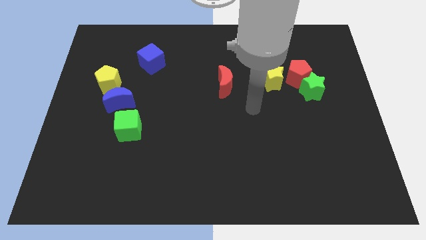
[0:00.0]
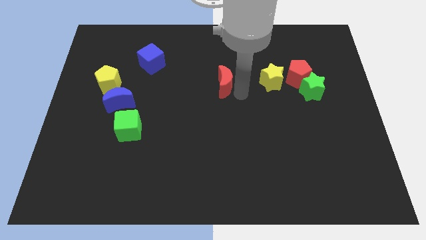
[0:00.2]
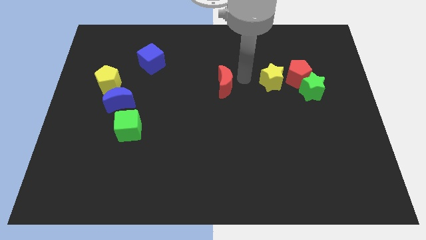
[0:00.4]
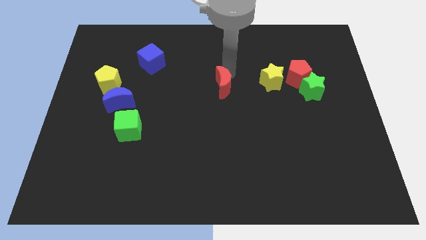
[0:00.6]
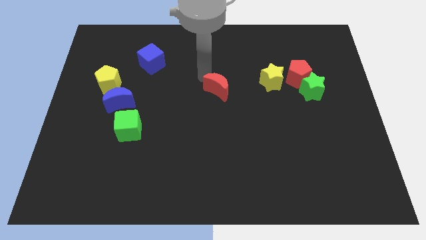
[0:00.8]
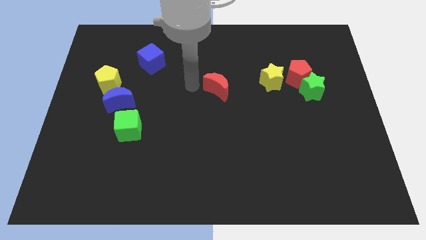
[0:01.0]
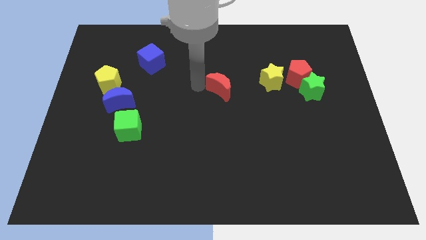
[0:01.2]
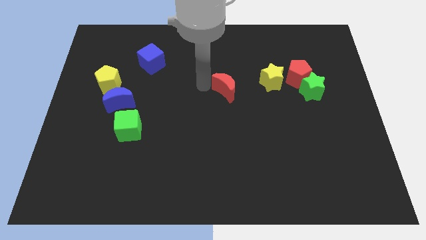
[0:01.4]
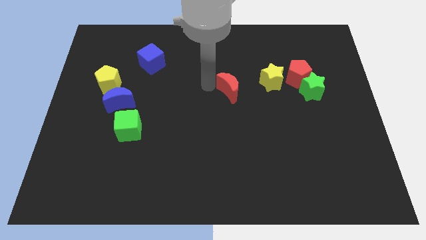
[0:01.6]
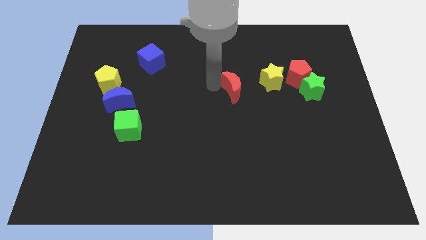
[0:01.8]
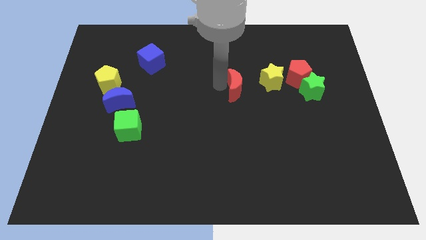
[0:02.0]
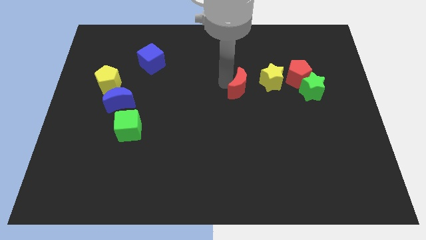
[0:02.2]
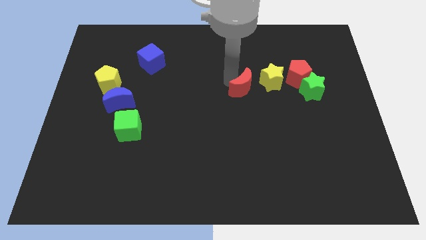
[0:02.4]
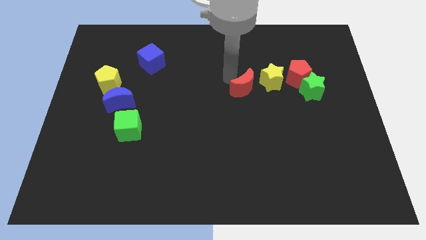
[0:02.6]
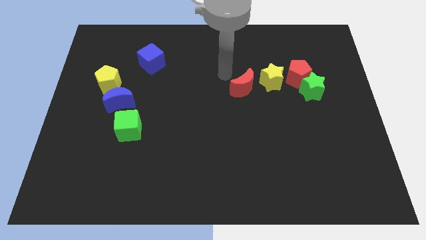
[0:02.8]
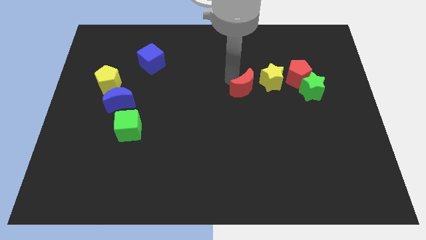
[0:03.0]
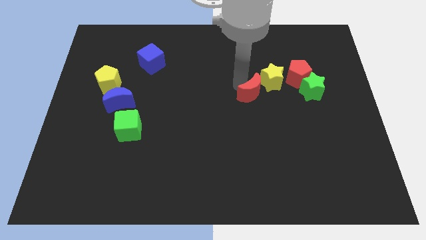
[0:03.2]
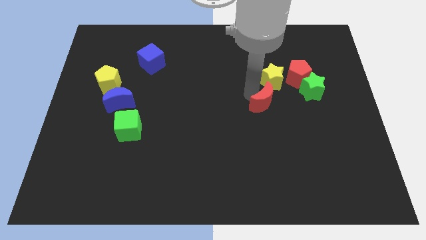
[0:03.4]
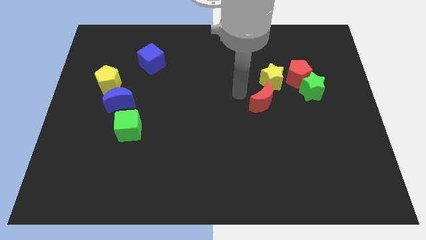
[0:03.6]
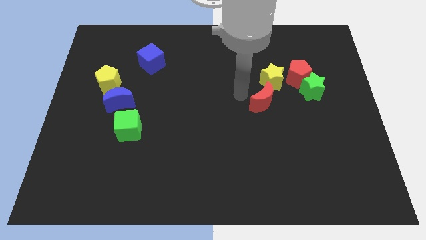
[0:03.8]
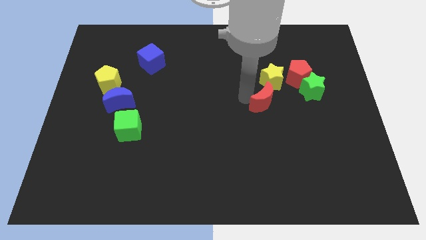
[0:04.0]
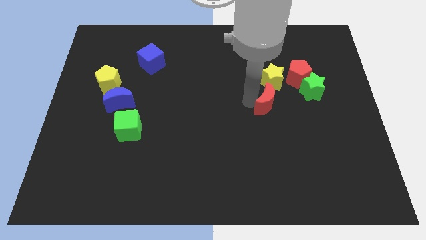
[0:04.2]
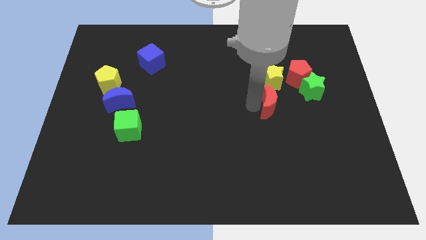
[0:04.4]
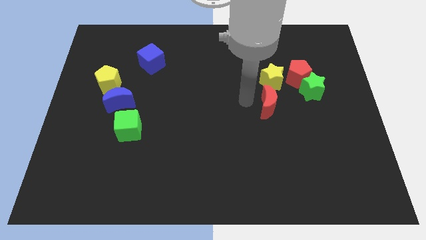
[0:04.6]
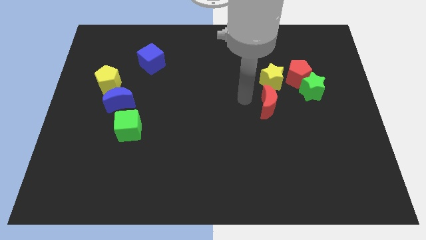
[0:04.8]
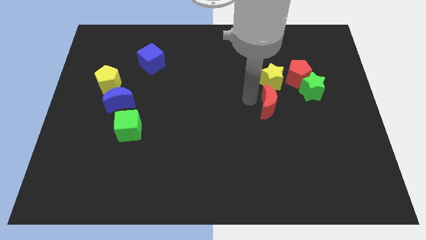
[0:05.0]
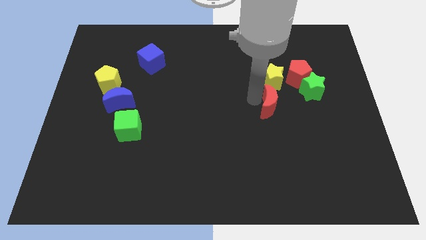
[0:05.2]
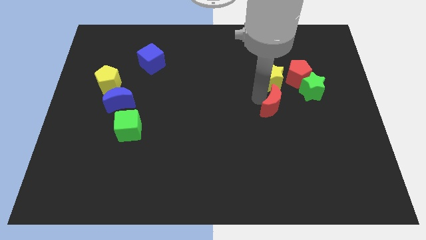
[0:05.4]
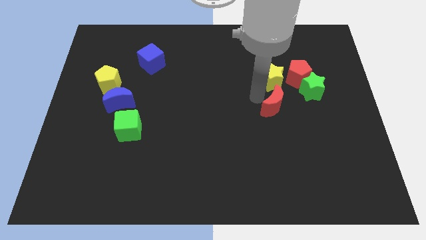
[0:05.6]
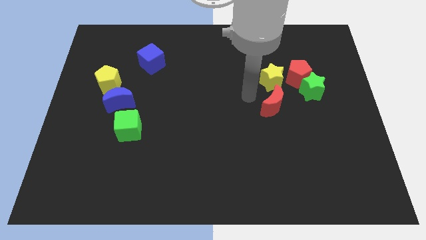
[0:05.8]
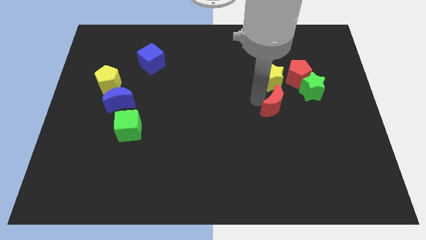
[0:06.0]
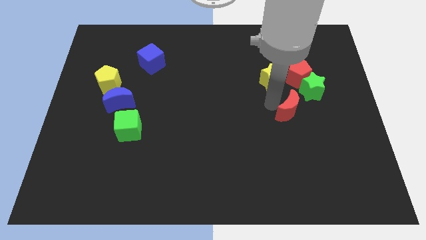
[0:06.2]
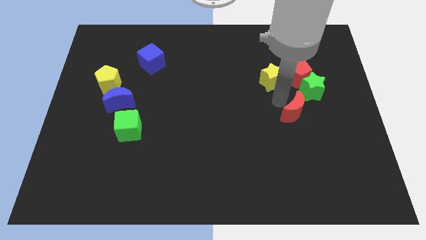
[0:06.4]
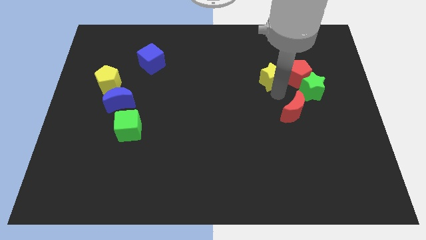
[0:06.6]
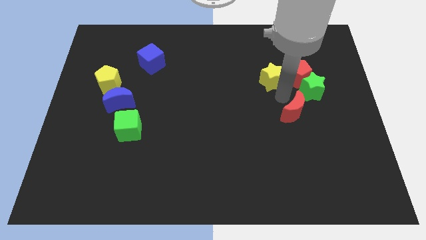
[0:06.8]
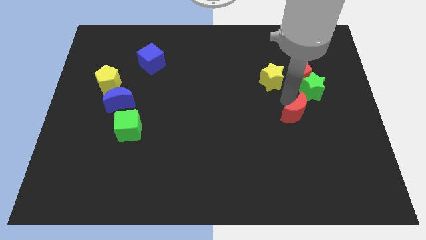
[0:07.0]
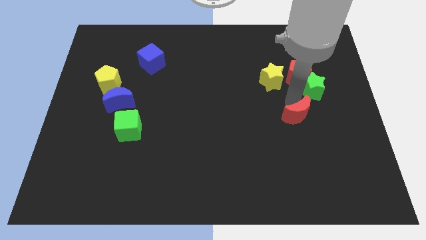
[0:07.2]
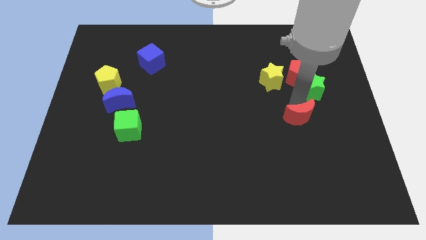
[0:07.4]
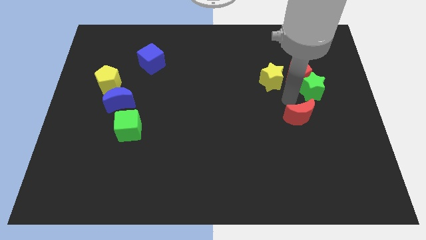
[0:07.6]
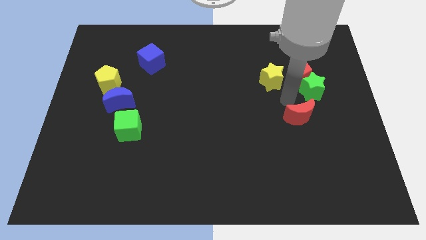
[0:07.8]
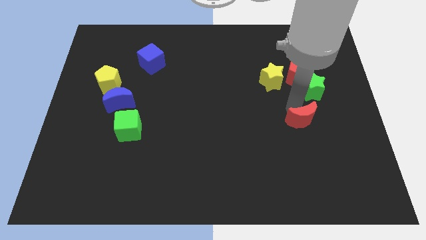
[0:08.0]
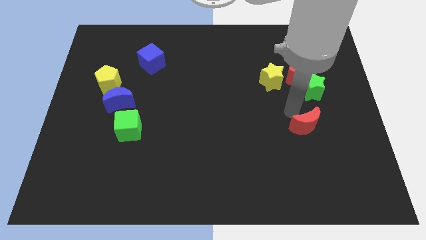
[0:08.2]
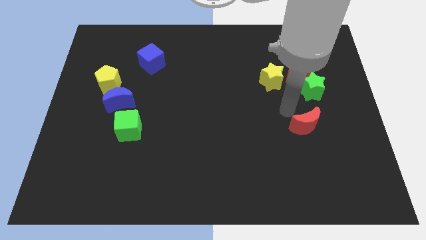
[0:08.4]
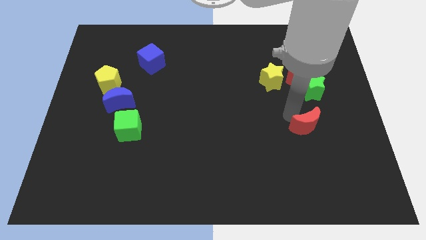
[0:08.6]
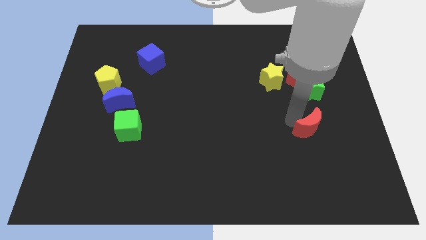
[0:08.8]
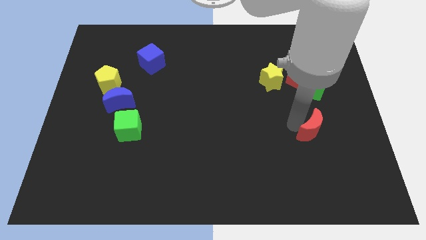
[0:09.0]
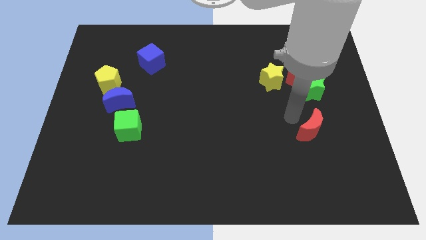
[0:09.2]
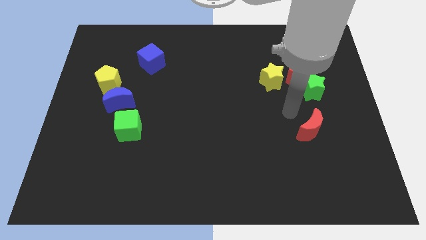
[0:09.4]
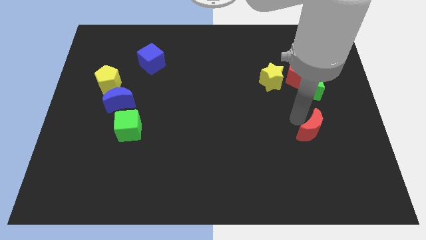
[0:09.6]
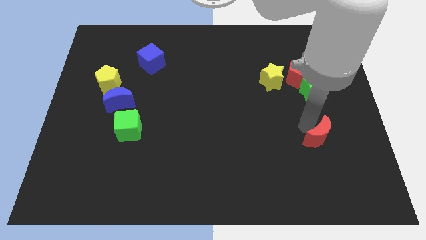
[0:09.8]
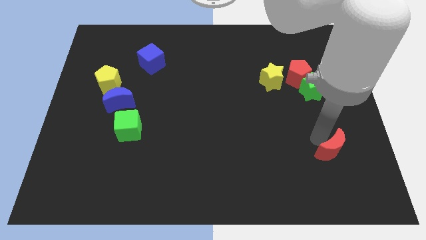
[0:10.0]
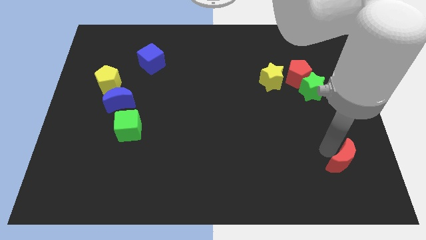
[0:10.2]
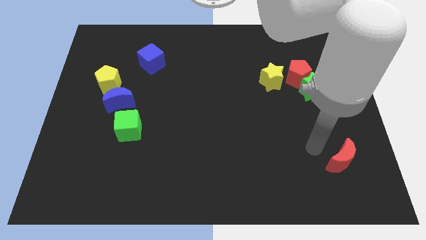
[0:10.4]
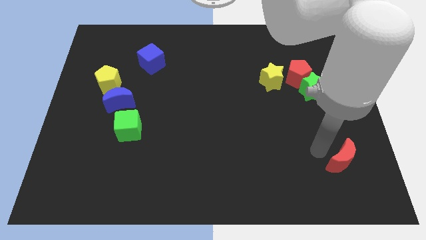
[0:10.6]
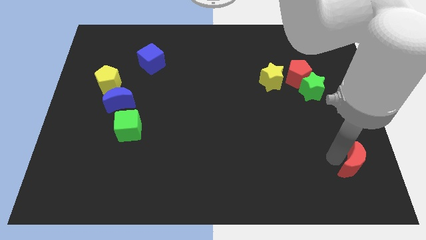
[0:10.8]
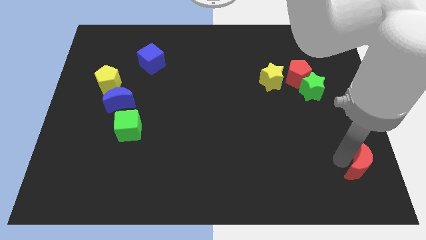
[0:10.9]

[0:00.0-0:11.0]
slide the red moon to the bottom right

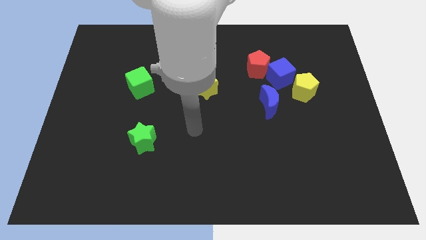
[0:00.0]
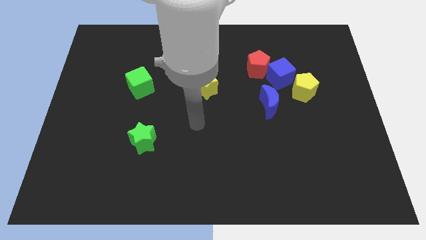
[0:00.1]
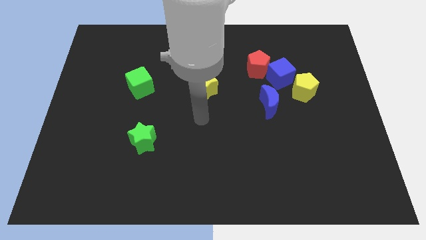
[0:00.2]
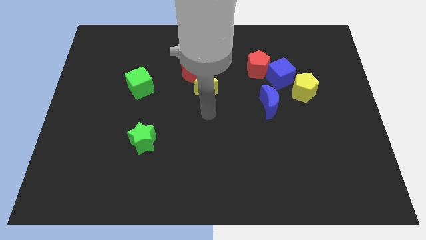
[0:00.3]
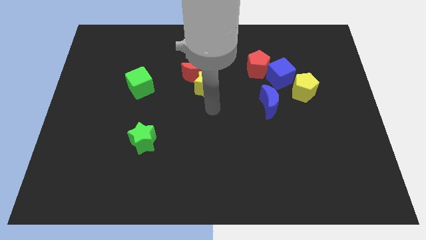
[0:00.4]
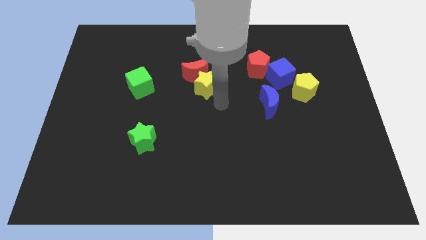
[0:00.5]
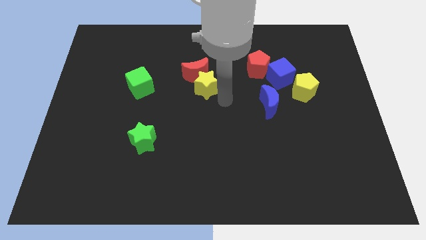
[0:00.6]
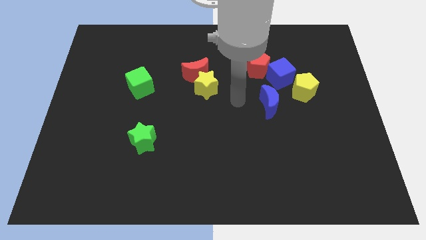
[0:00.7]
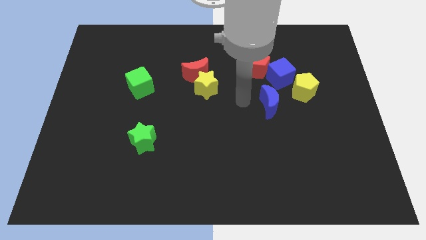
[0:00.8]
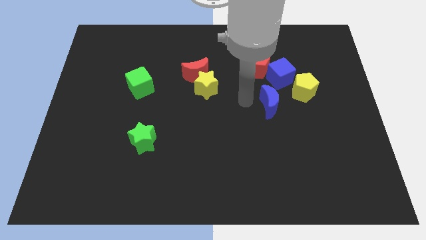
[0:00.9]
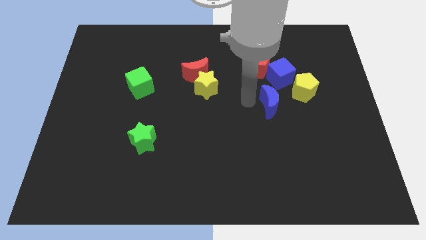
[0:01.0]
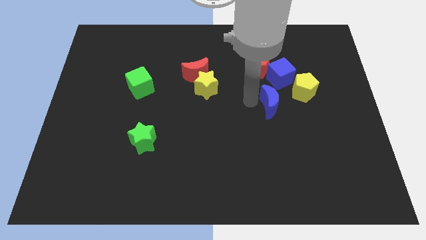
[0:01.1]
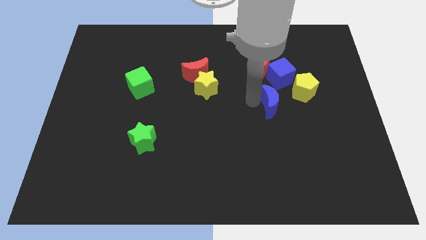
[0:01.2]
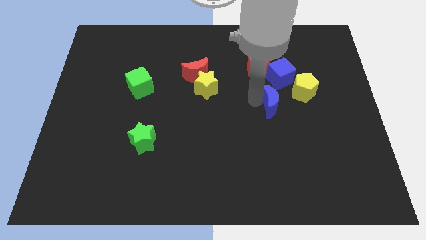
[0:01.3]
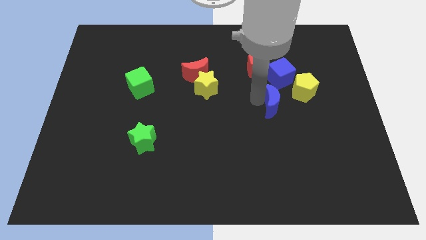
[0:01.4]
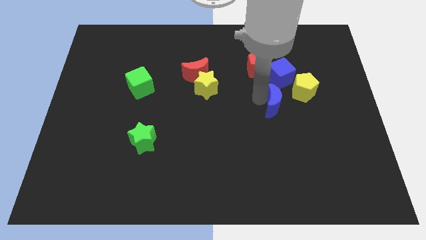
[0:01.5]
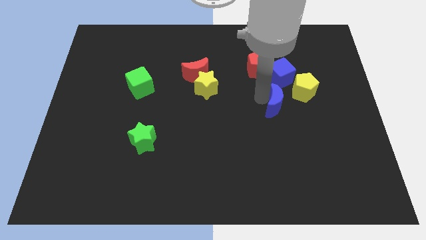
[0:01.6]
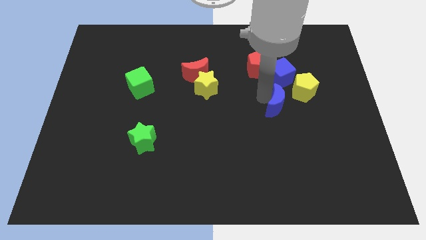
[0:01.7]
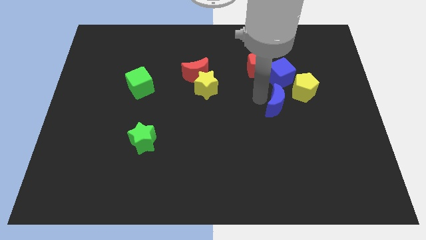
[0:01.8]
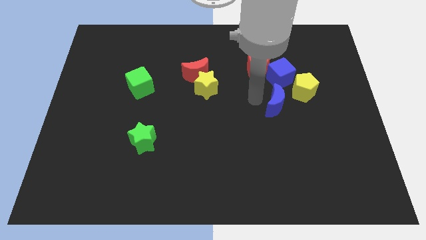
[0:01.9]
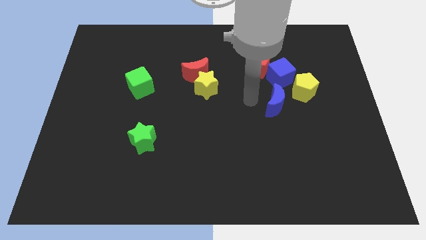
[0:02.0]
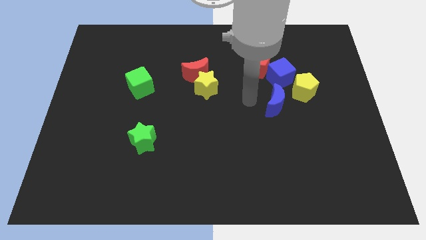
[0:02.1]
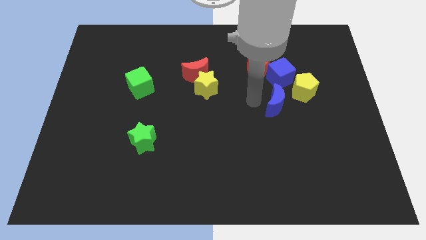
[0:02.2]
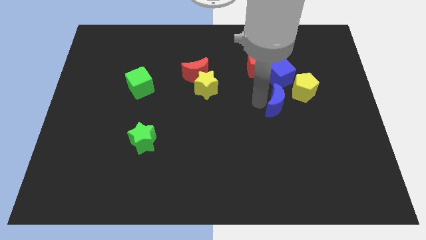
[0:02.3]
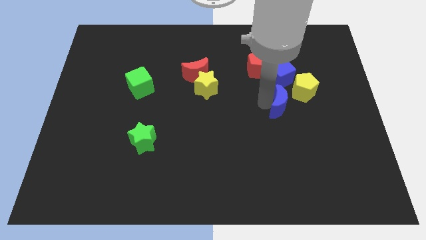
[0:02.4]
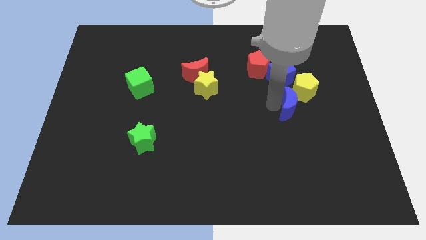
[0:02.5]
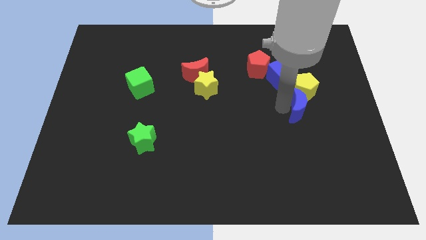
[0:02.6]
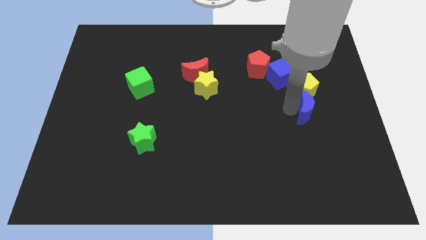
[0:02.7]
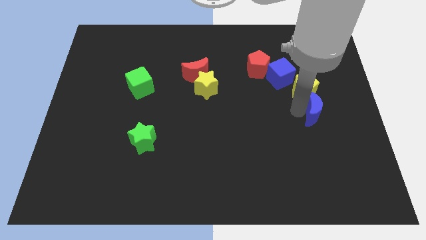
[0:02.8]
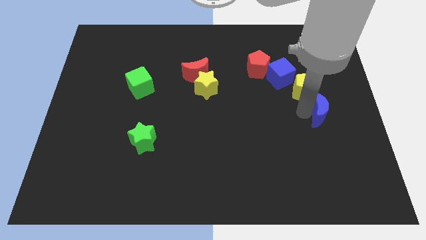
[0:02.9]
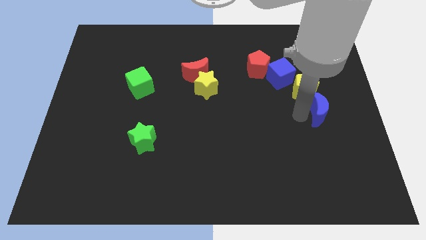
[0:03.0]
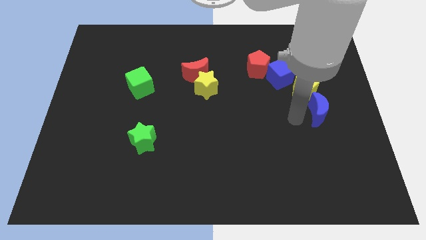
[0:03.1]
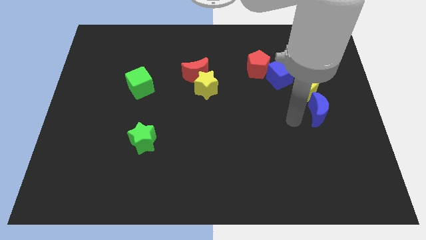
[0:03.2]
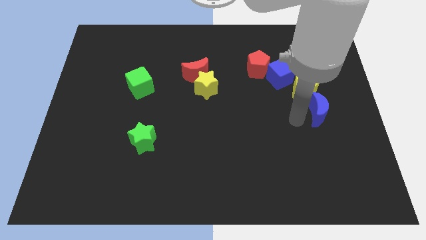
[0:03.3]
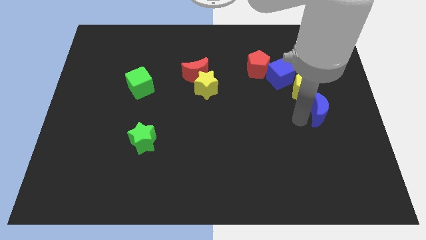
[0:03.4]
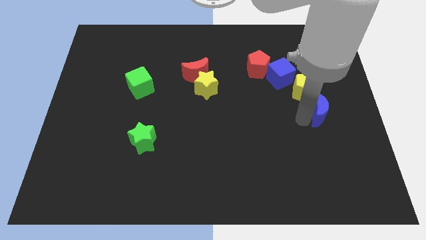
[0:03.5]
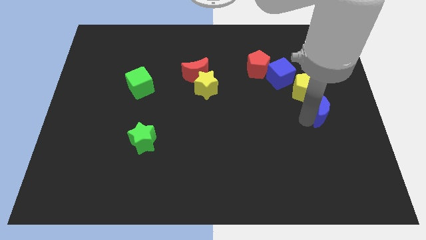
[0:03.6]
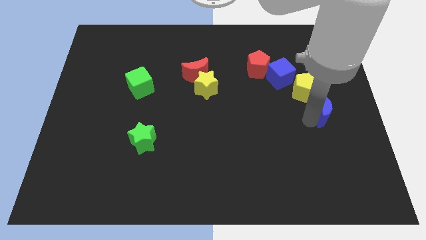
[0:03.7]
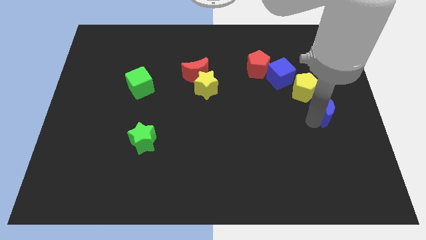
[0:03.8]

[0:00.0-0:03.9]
put the blue moon to the right side
